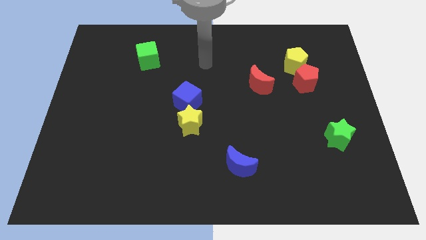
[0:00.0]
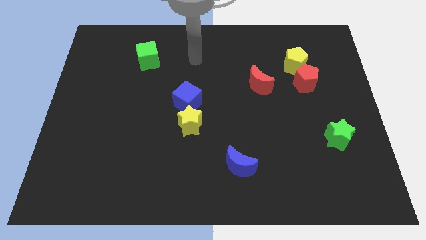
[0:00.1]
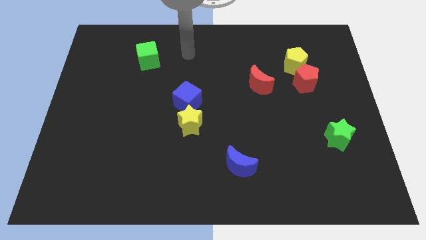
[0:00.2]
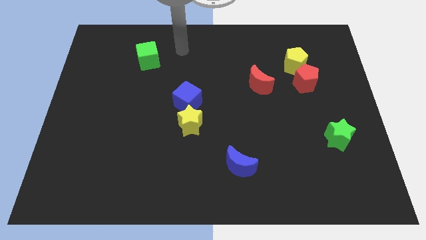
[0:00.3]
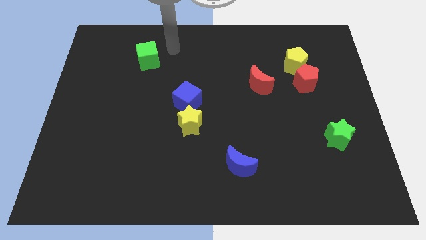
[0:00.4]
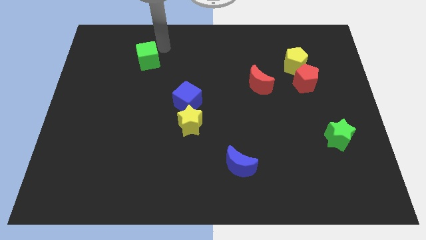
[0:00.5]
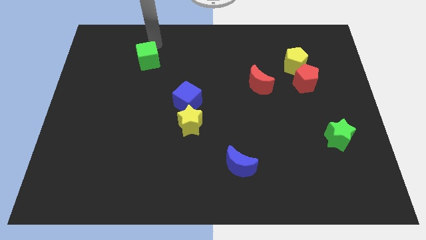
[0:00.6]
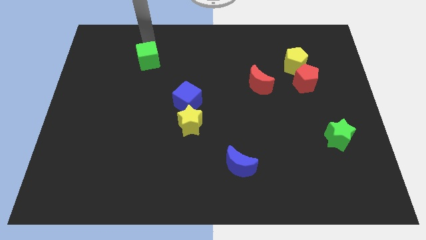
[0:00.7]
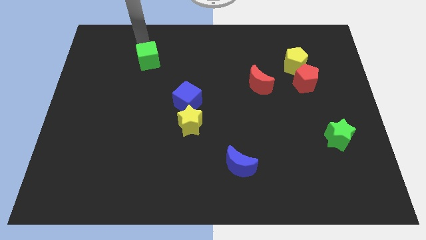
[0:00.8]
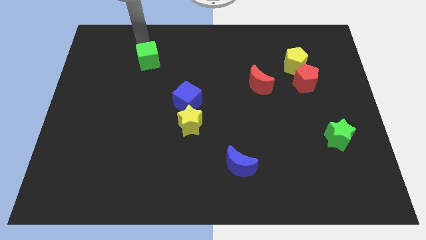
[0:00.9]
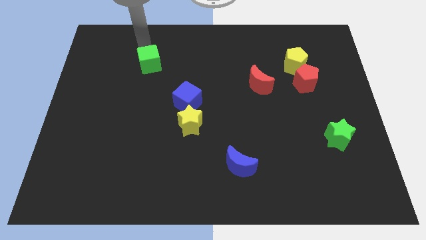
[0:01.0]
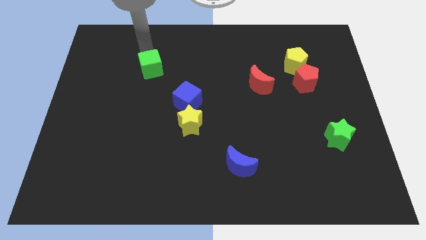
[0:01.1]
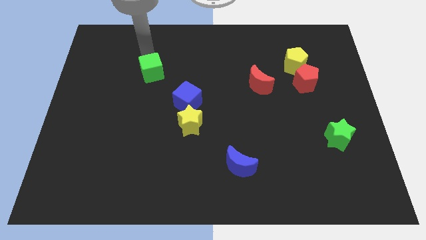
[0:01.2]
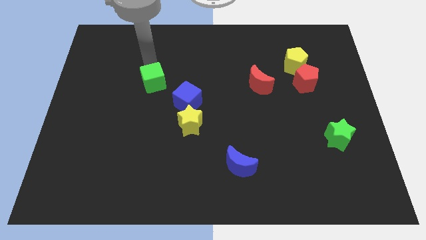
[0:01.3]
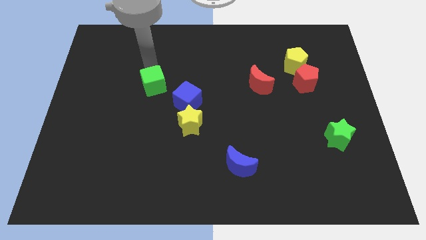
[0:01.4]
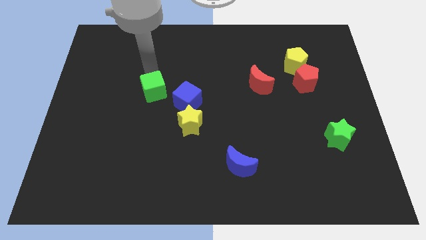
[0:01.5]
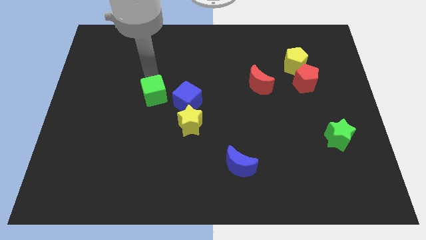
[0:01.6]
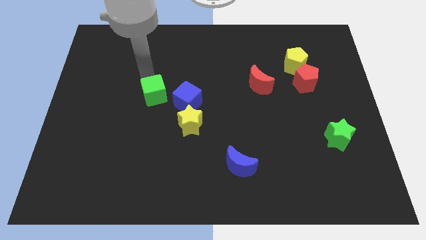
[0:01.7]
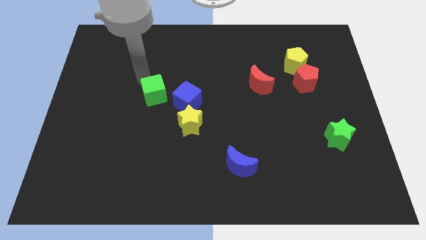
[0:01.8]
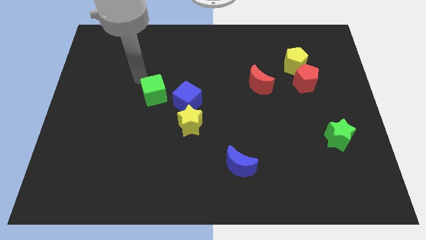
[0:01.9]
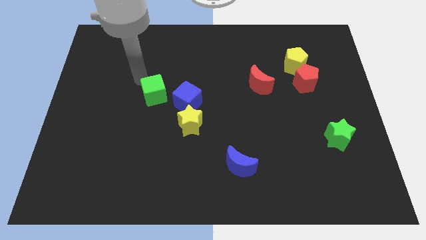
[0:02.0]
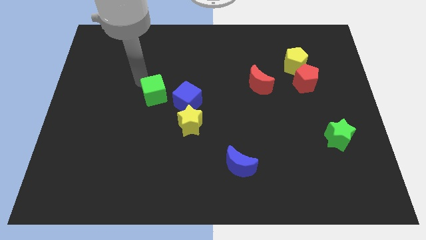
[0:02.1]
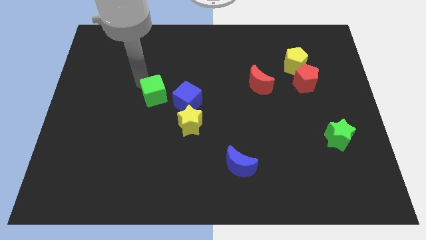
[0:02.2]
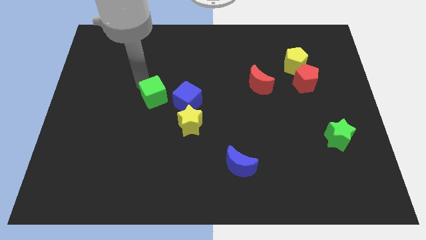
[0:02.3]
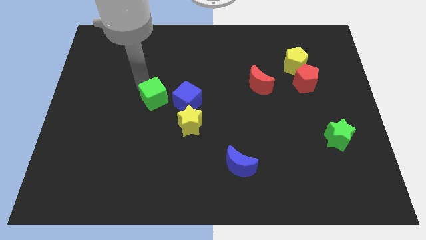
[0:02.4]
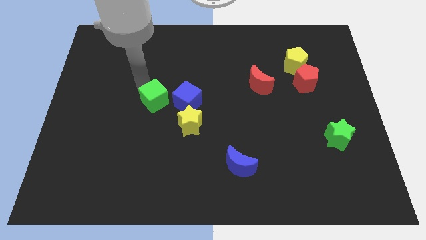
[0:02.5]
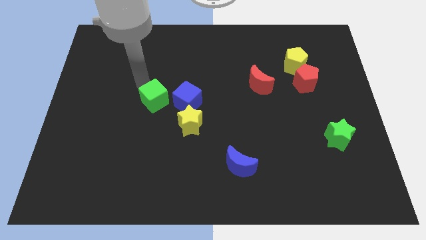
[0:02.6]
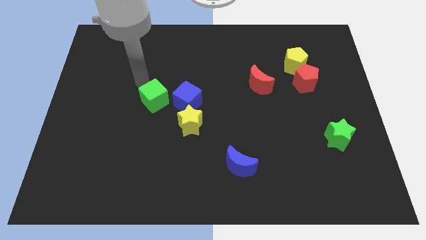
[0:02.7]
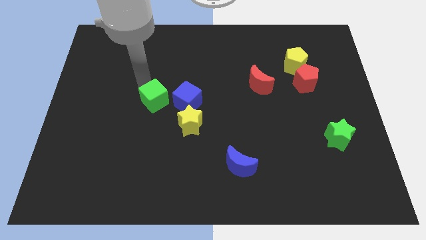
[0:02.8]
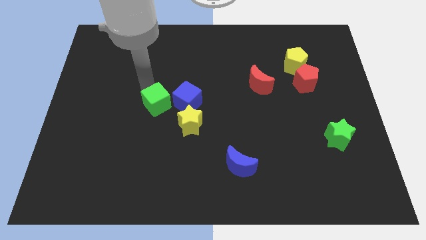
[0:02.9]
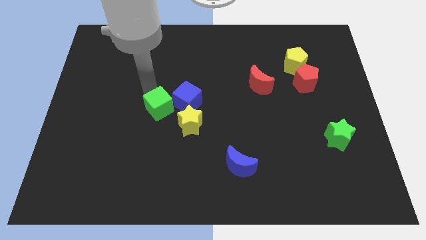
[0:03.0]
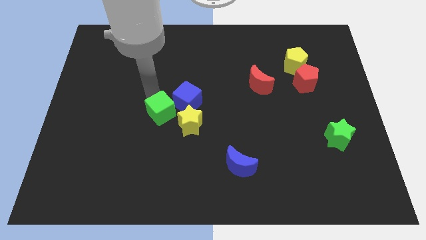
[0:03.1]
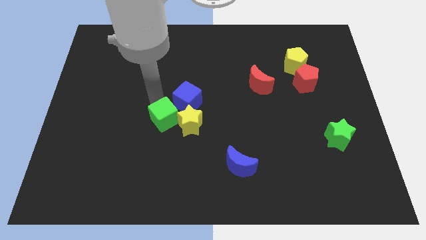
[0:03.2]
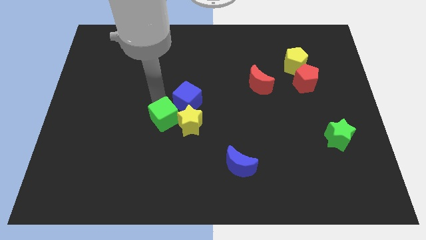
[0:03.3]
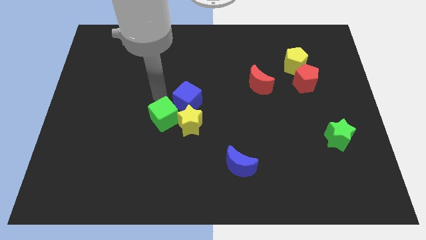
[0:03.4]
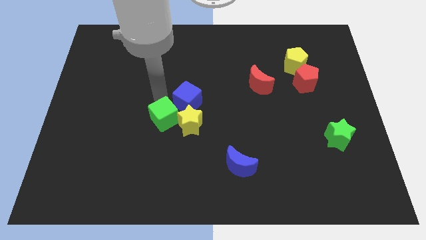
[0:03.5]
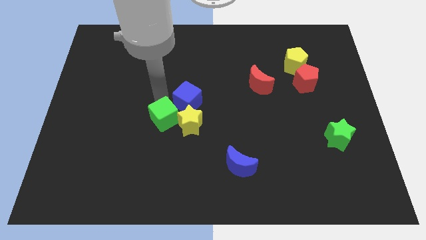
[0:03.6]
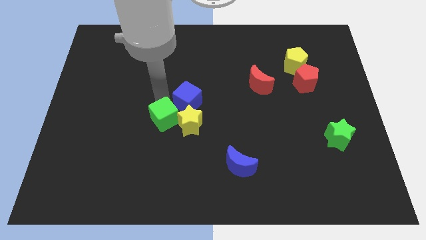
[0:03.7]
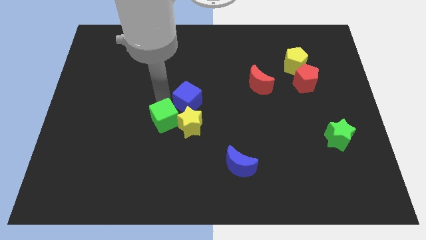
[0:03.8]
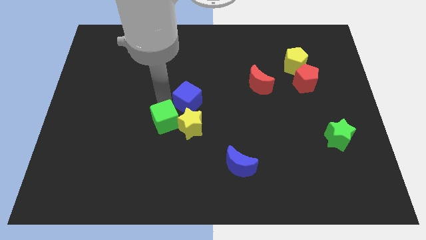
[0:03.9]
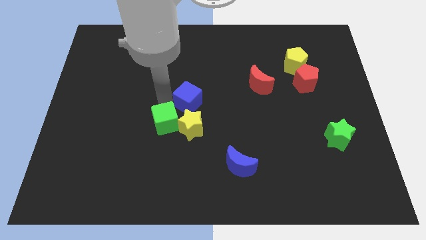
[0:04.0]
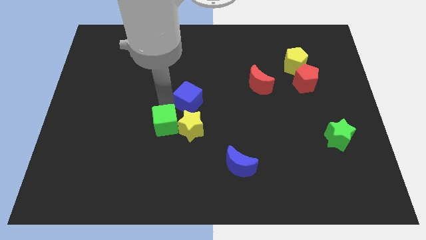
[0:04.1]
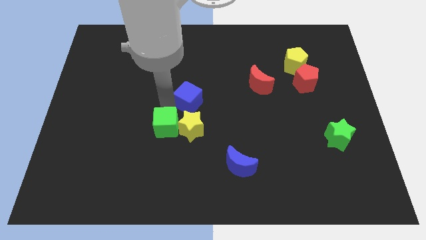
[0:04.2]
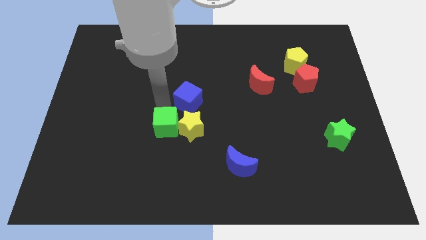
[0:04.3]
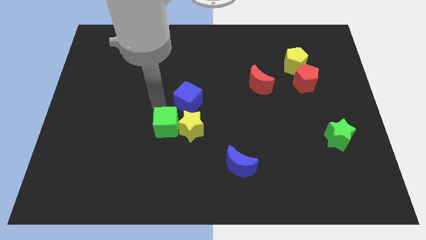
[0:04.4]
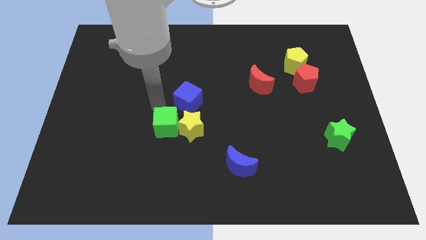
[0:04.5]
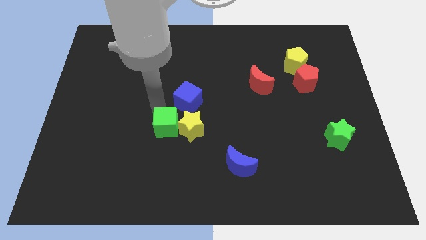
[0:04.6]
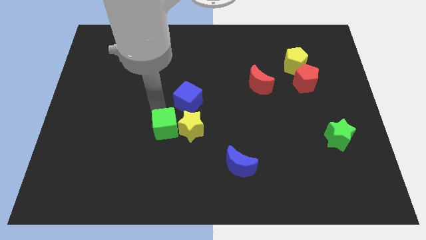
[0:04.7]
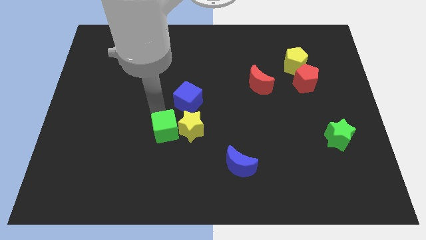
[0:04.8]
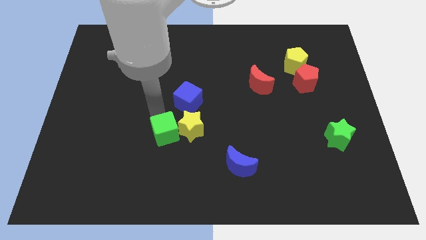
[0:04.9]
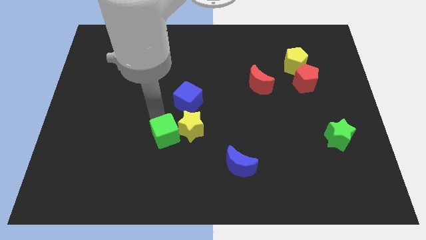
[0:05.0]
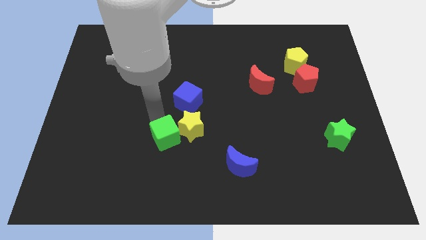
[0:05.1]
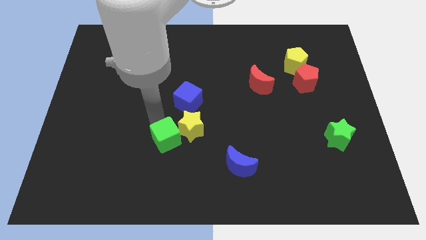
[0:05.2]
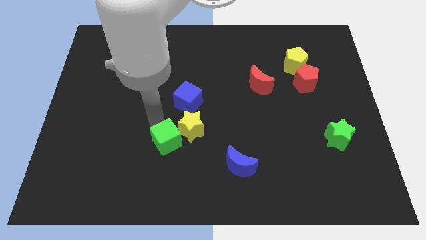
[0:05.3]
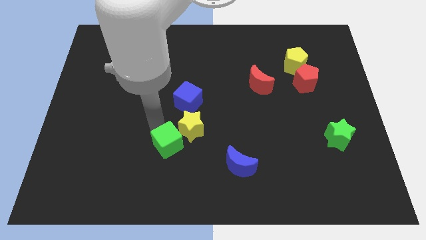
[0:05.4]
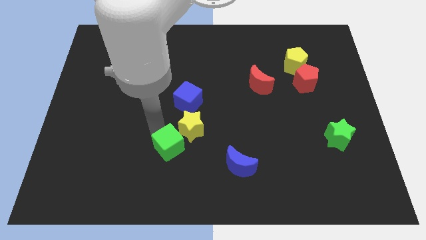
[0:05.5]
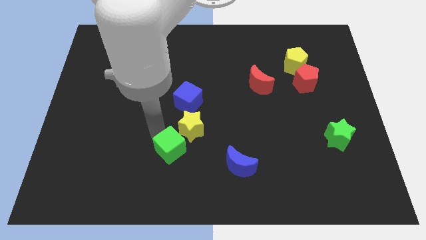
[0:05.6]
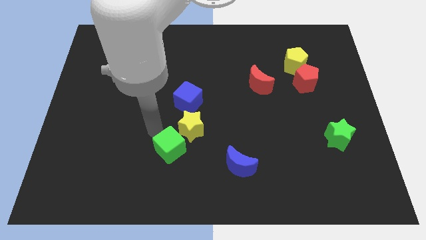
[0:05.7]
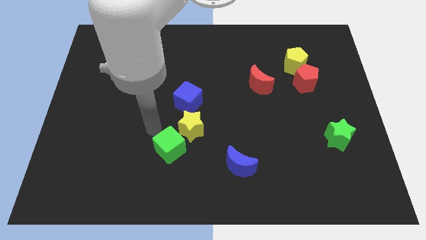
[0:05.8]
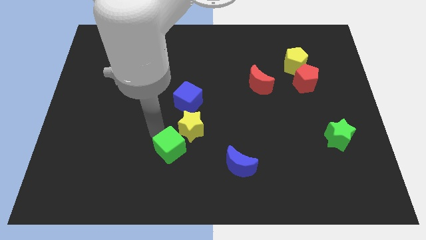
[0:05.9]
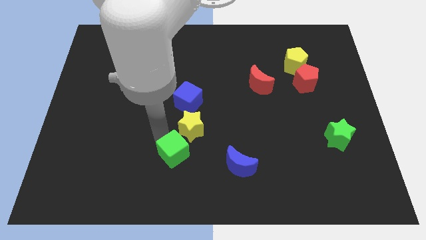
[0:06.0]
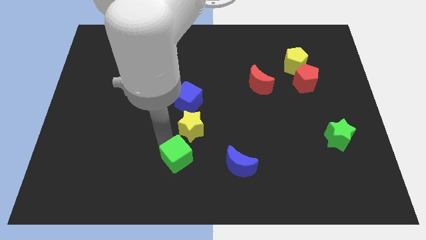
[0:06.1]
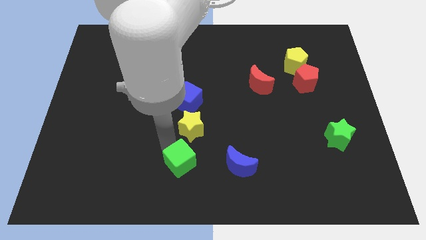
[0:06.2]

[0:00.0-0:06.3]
put the green cube to the bottom
